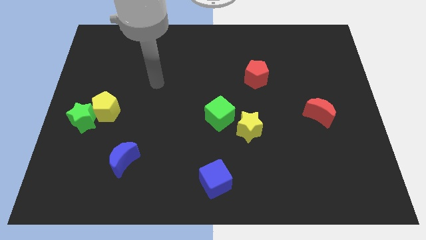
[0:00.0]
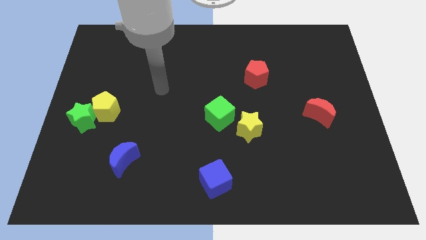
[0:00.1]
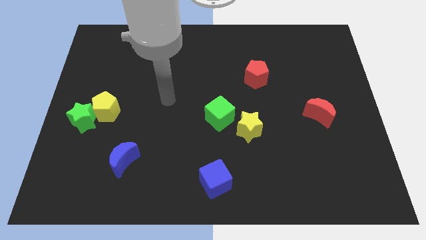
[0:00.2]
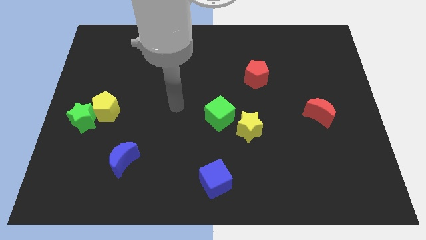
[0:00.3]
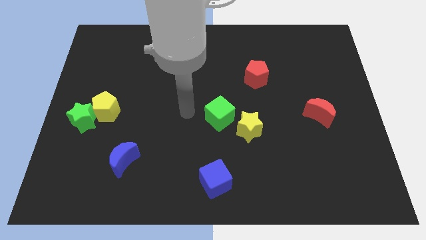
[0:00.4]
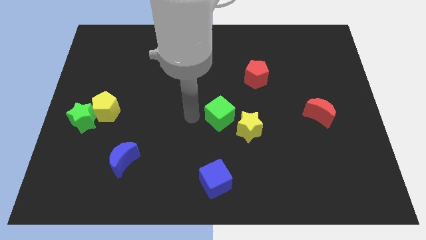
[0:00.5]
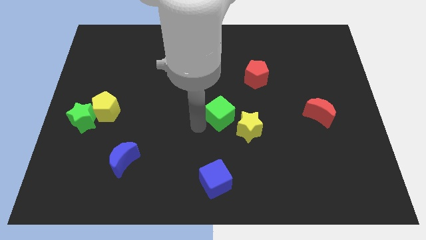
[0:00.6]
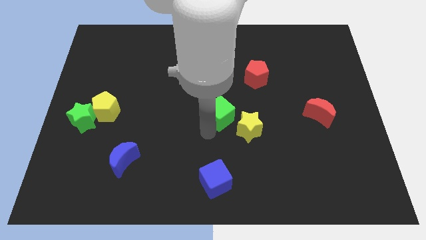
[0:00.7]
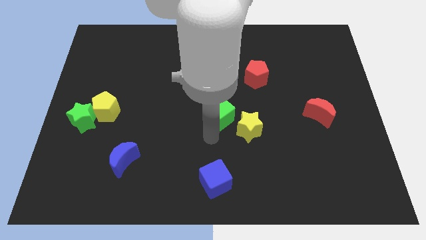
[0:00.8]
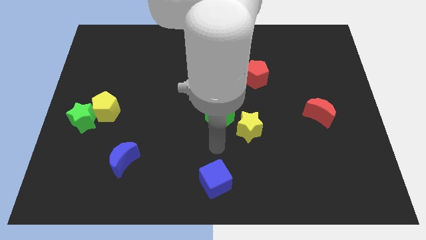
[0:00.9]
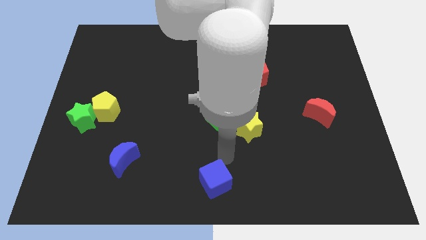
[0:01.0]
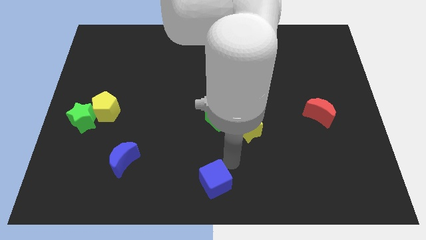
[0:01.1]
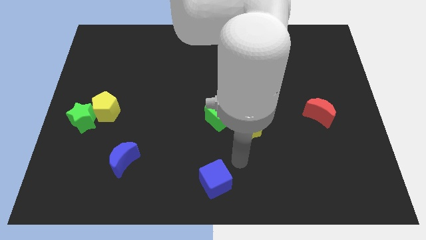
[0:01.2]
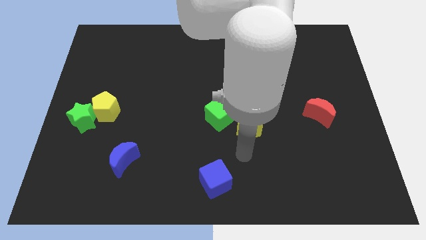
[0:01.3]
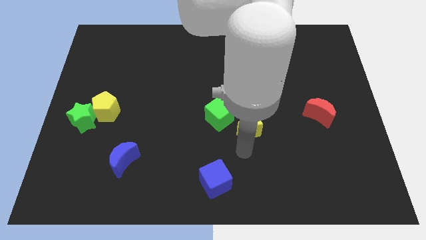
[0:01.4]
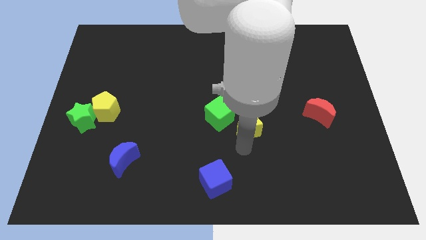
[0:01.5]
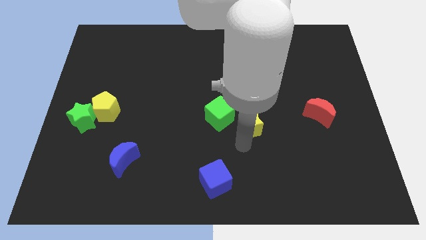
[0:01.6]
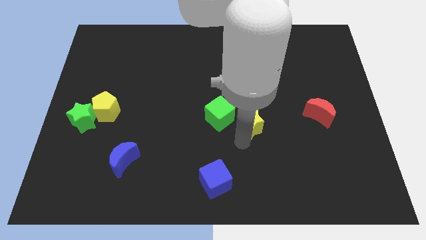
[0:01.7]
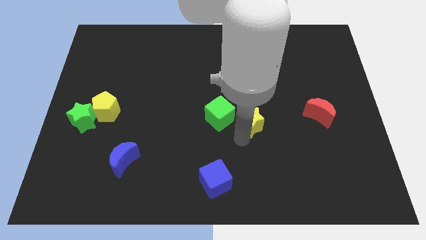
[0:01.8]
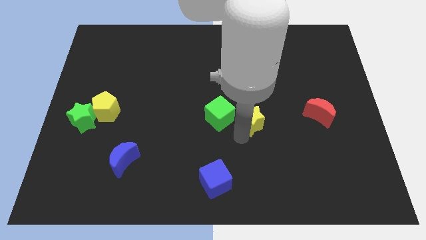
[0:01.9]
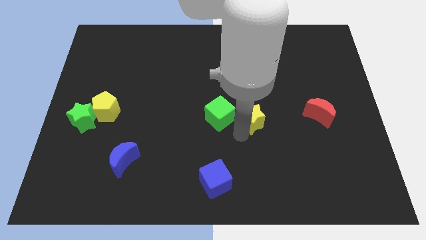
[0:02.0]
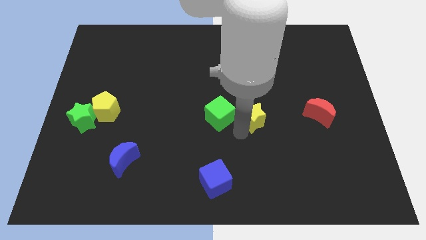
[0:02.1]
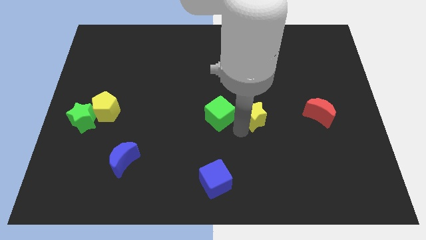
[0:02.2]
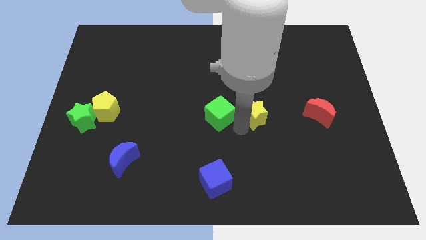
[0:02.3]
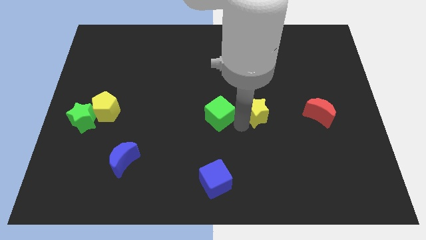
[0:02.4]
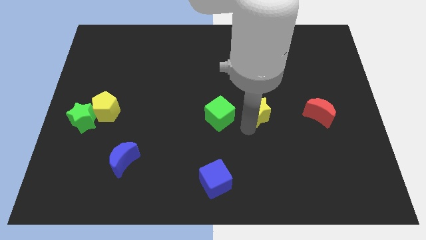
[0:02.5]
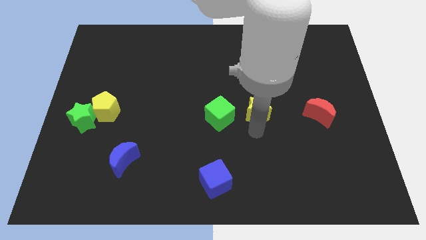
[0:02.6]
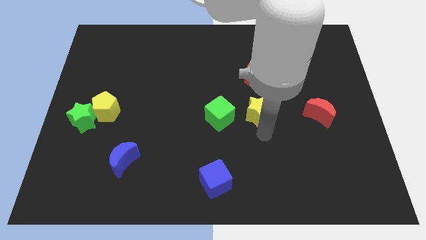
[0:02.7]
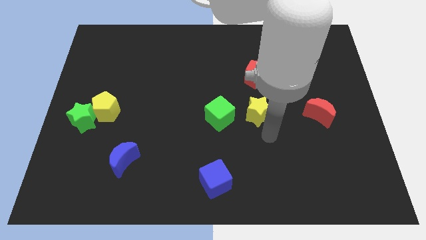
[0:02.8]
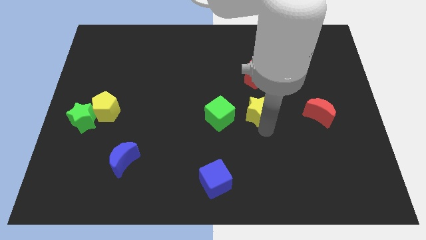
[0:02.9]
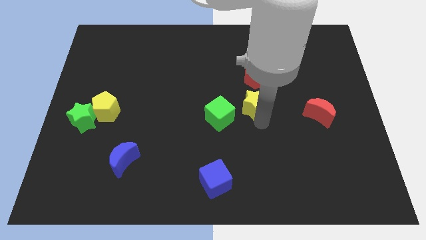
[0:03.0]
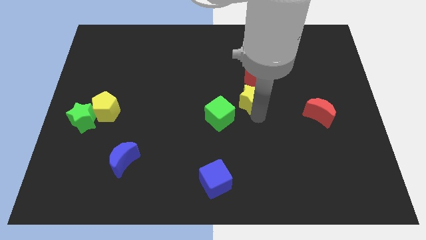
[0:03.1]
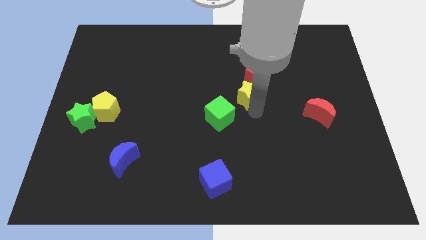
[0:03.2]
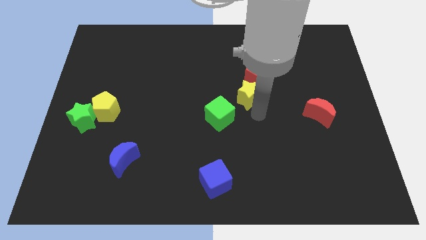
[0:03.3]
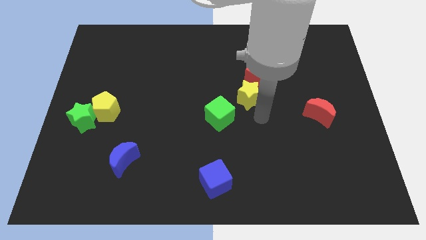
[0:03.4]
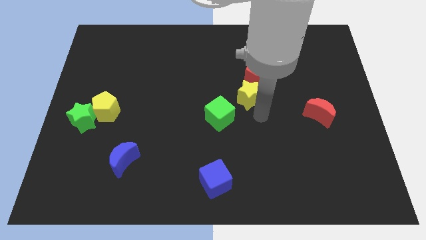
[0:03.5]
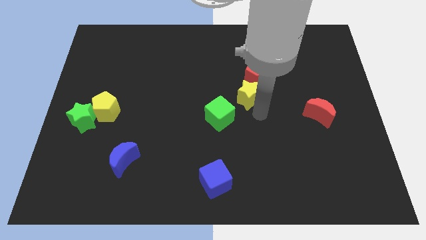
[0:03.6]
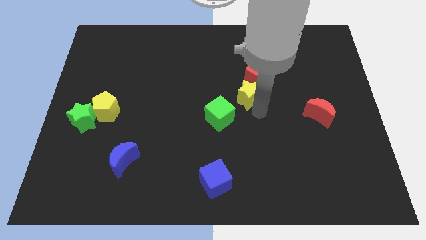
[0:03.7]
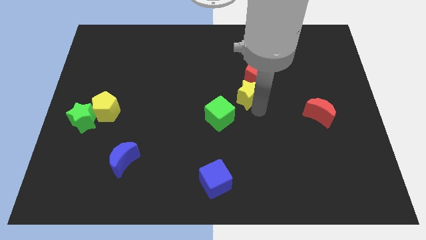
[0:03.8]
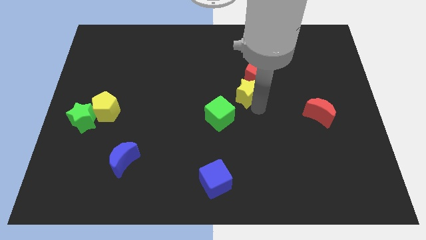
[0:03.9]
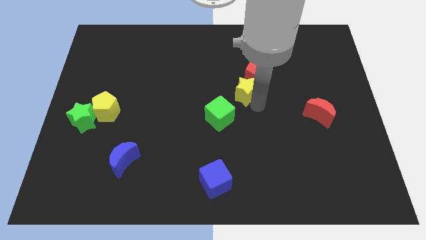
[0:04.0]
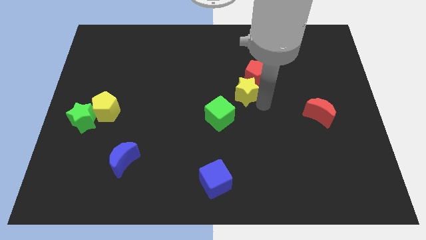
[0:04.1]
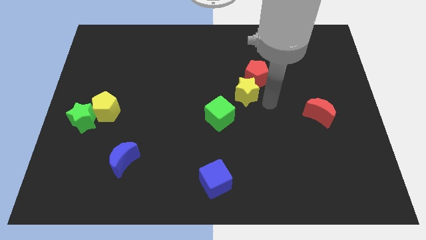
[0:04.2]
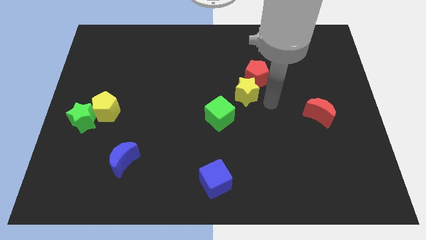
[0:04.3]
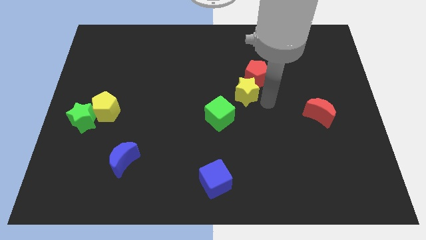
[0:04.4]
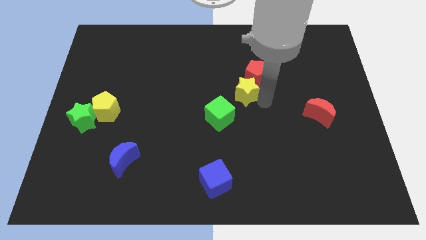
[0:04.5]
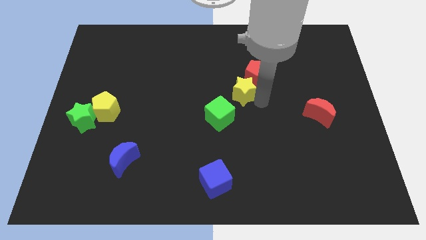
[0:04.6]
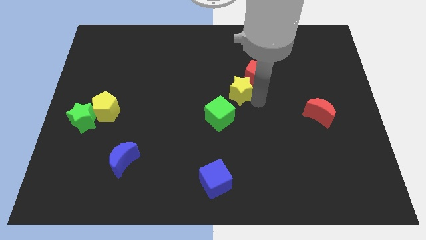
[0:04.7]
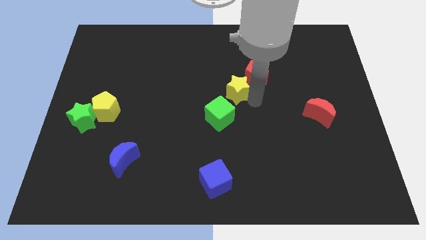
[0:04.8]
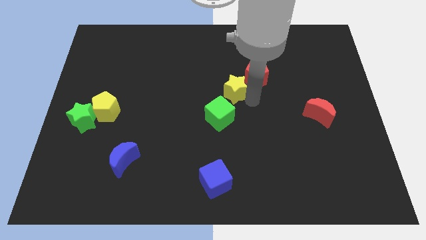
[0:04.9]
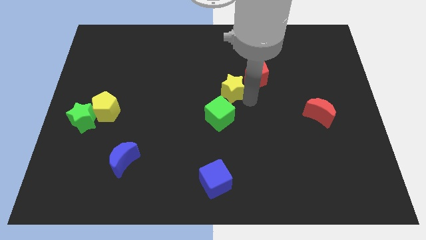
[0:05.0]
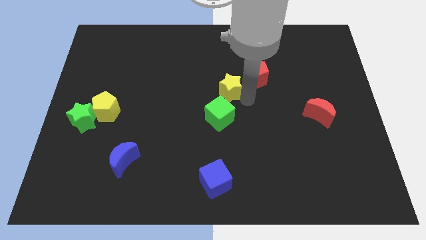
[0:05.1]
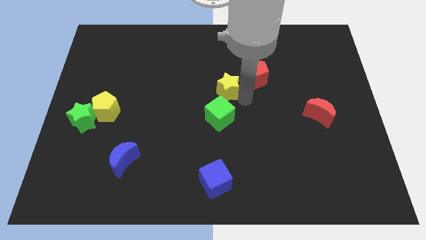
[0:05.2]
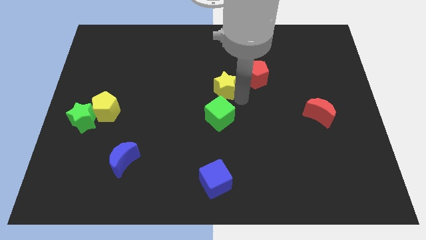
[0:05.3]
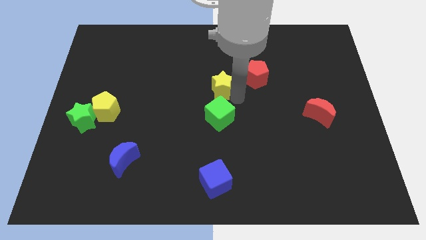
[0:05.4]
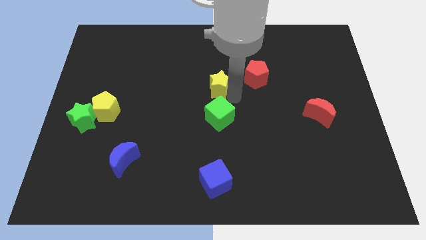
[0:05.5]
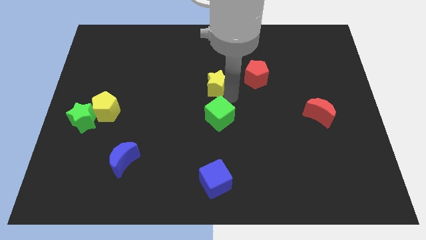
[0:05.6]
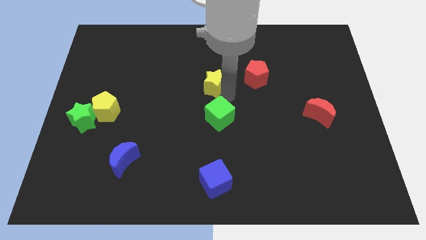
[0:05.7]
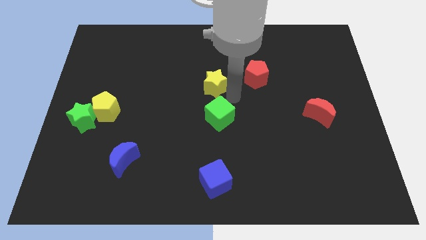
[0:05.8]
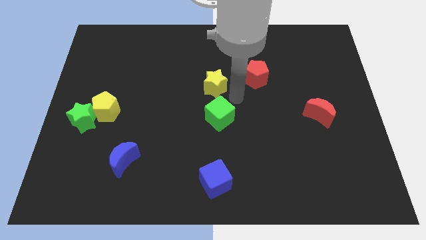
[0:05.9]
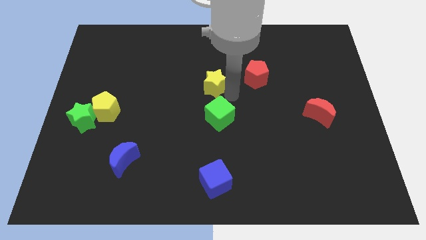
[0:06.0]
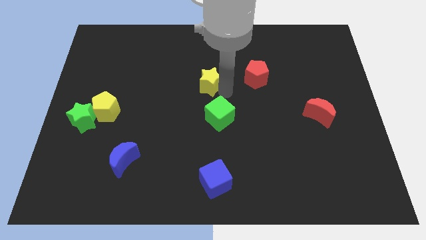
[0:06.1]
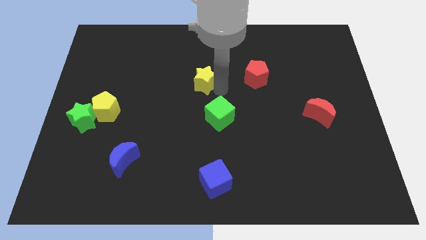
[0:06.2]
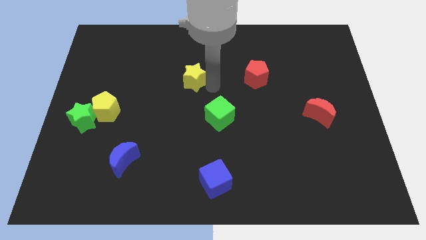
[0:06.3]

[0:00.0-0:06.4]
move the yellow star upwards and left diagonally

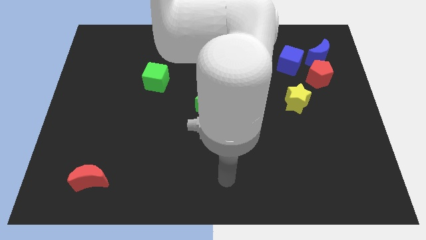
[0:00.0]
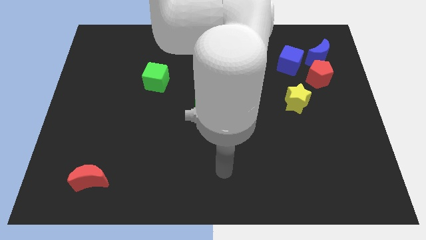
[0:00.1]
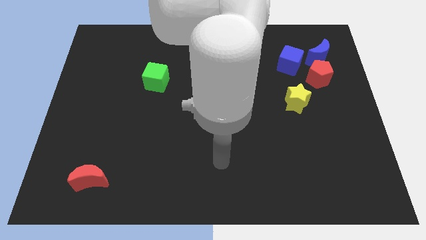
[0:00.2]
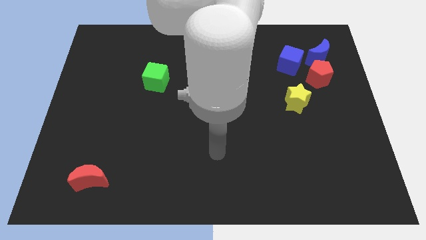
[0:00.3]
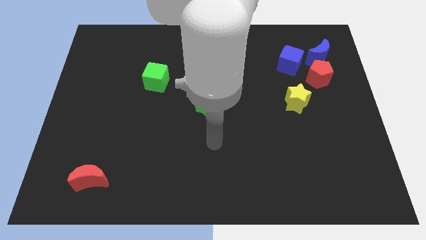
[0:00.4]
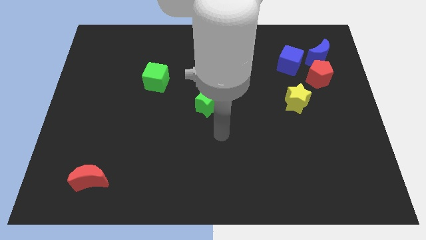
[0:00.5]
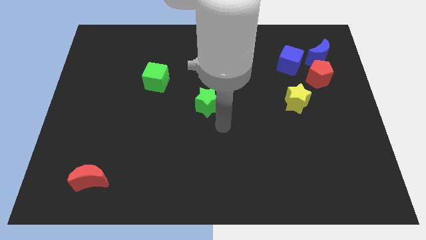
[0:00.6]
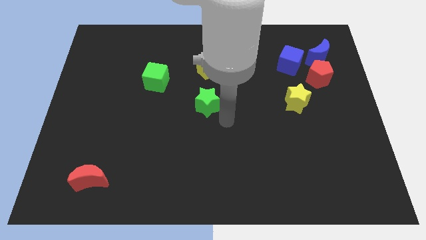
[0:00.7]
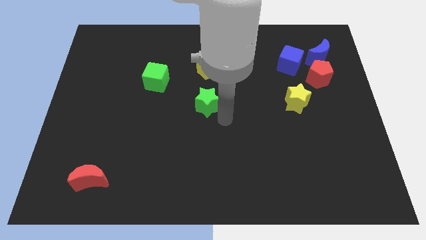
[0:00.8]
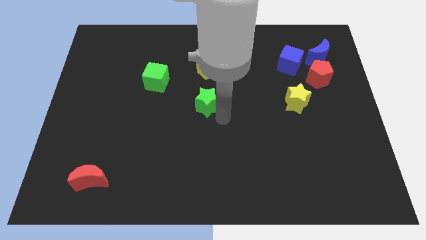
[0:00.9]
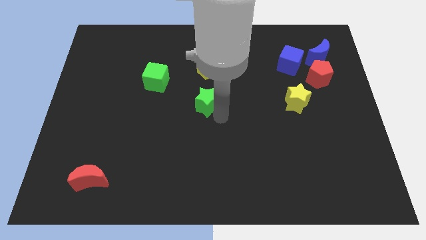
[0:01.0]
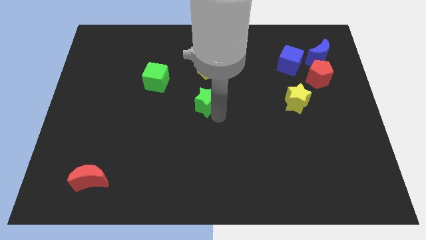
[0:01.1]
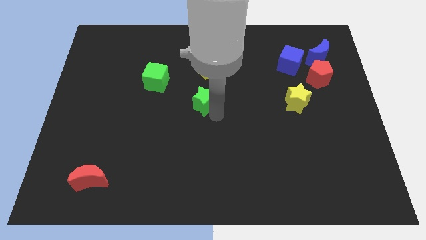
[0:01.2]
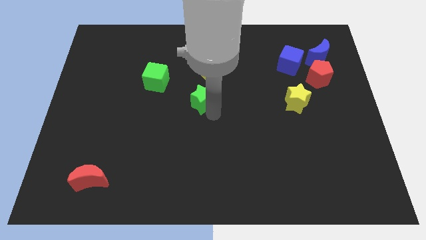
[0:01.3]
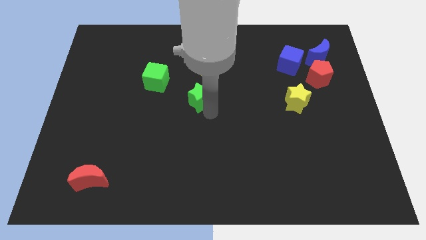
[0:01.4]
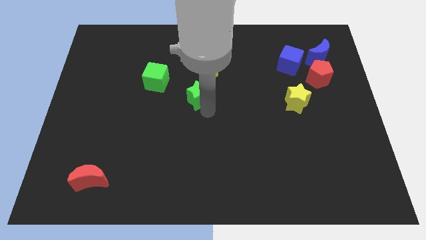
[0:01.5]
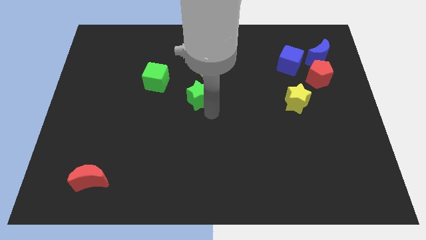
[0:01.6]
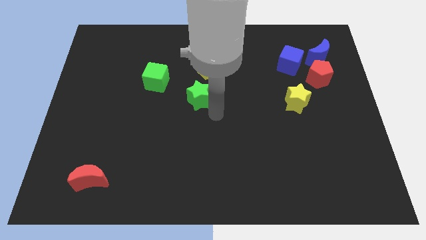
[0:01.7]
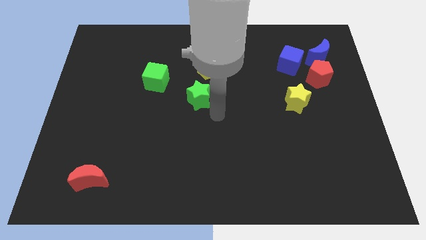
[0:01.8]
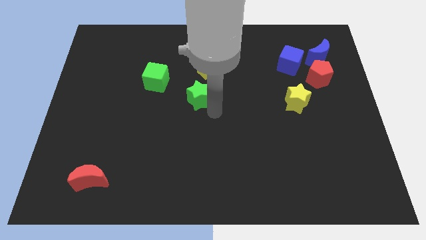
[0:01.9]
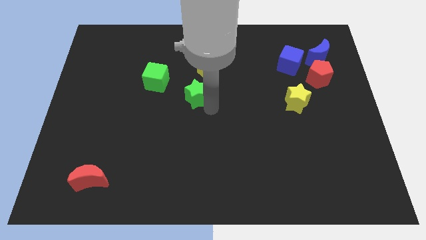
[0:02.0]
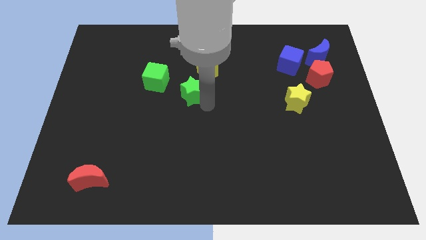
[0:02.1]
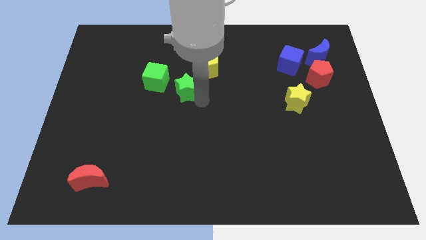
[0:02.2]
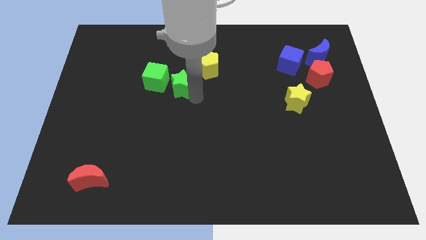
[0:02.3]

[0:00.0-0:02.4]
move the green star a little up and then left
